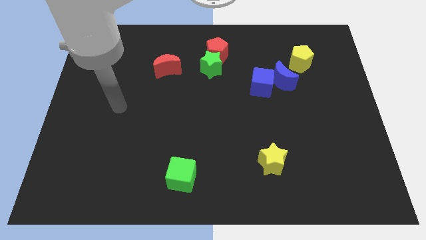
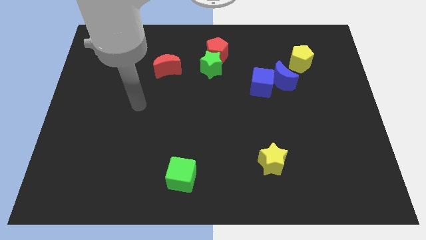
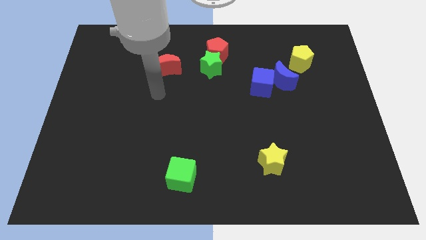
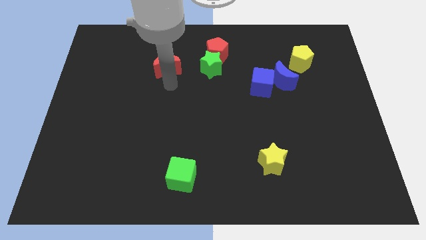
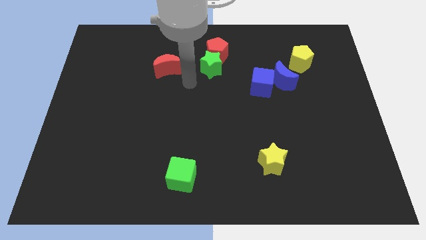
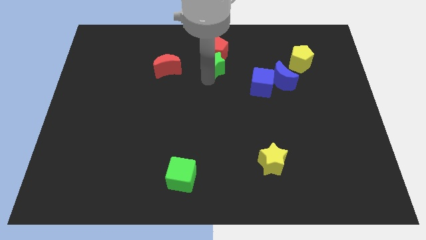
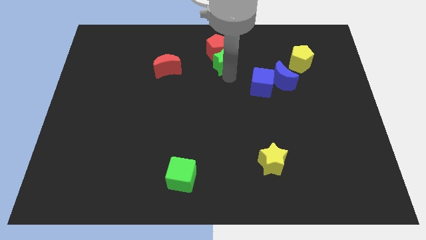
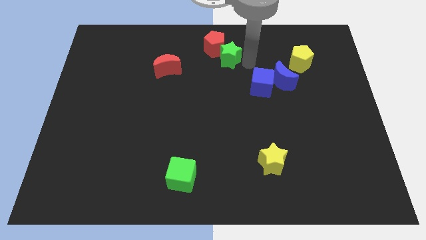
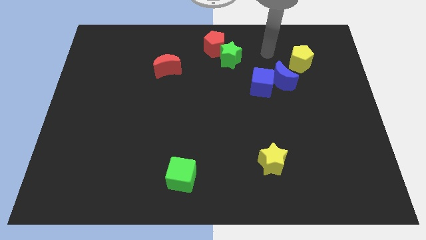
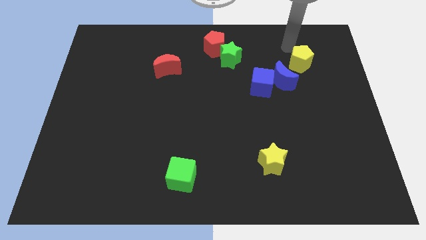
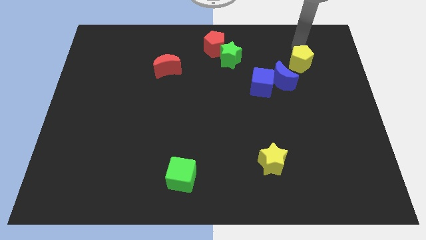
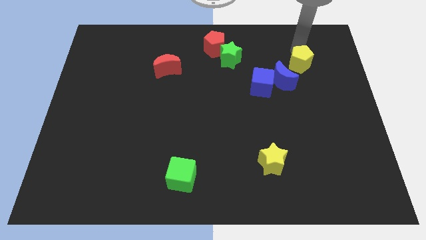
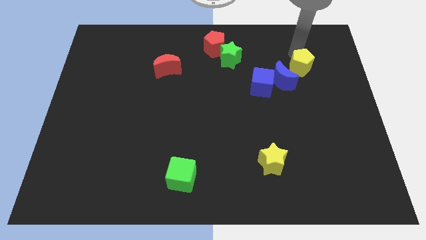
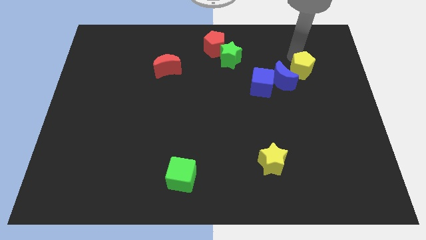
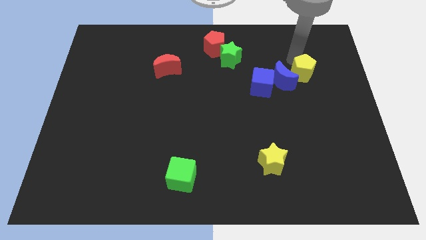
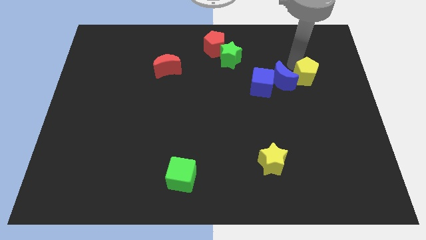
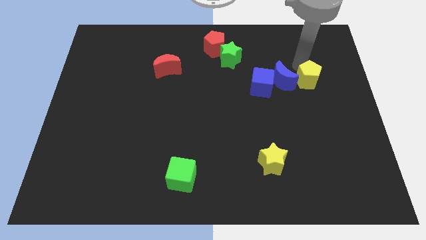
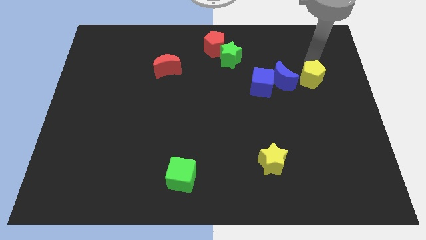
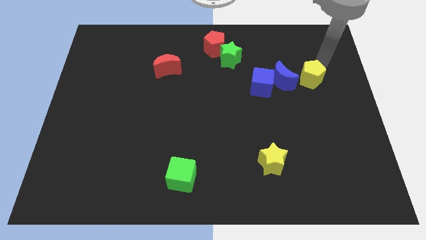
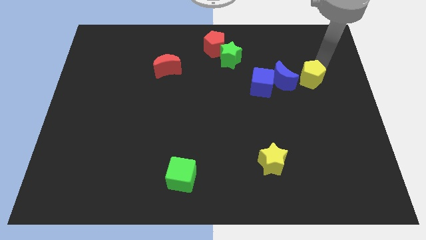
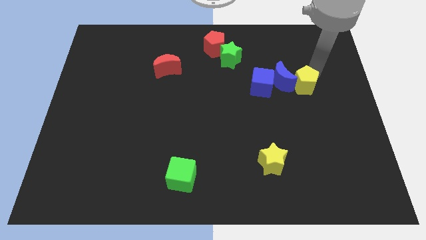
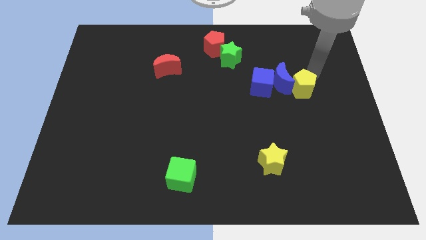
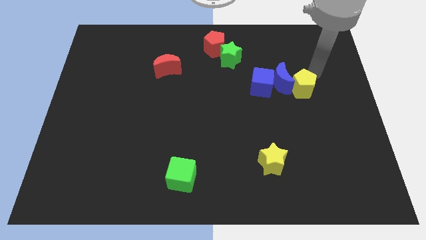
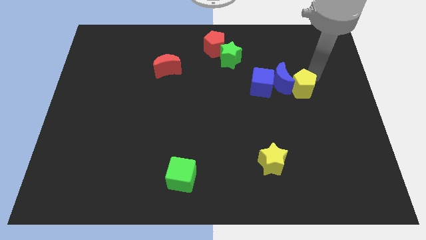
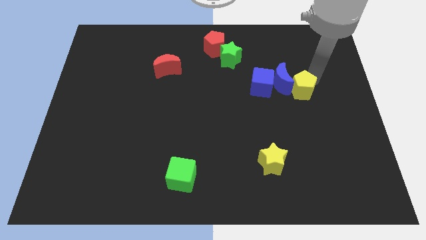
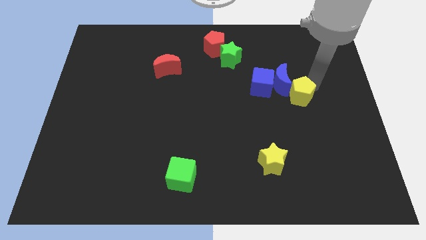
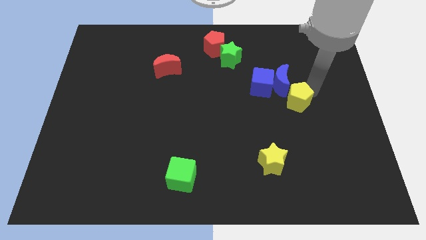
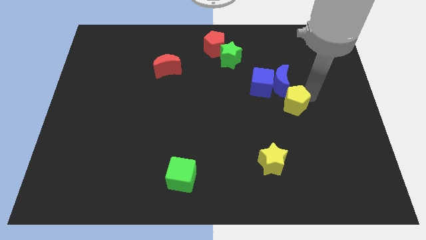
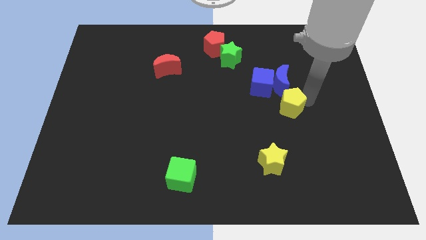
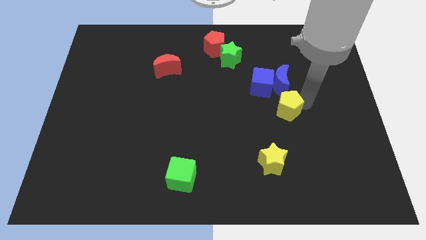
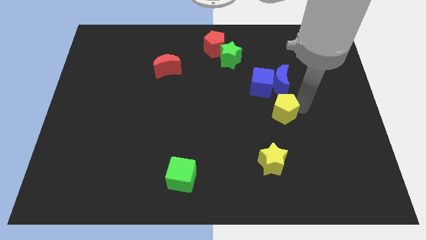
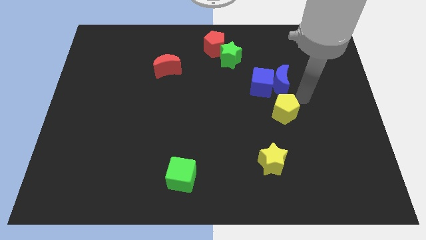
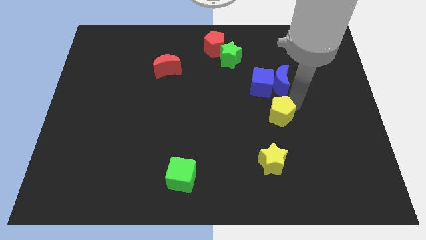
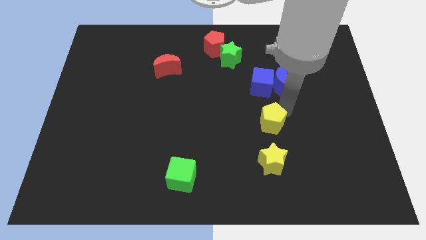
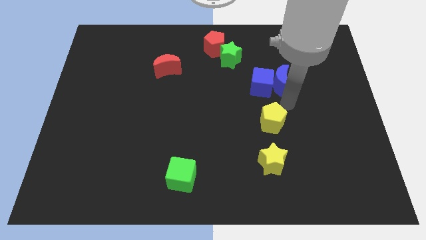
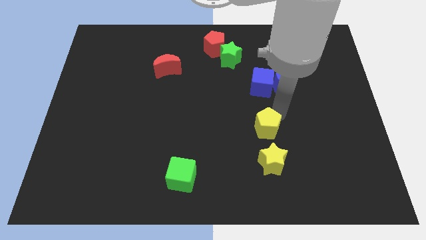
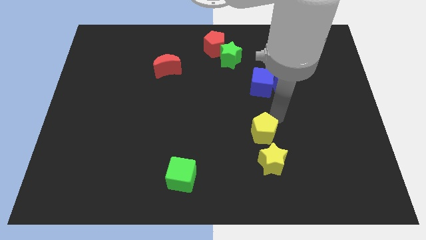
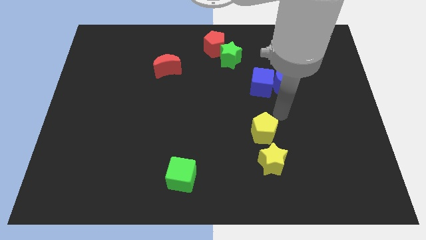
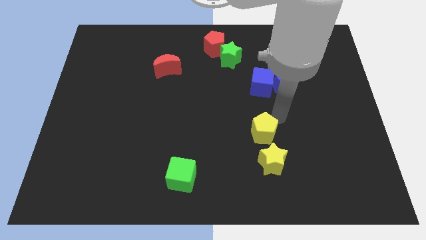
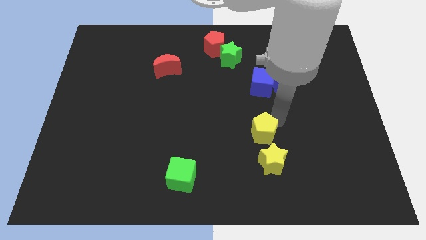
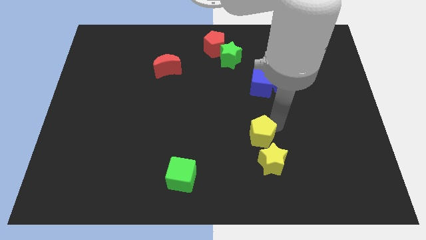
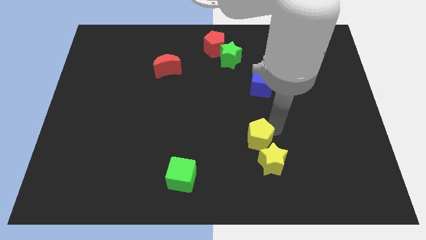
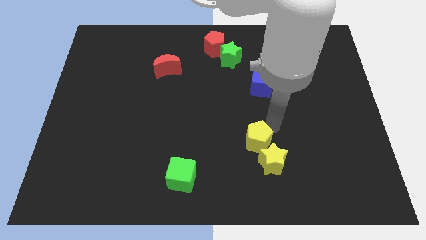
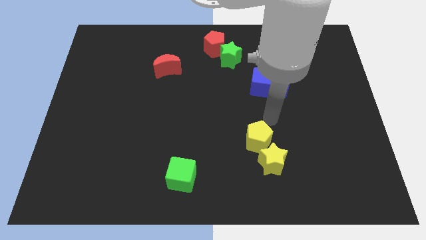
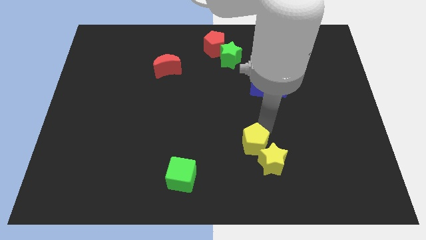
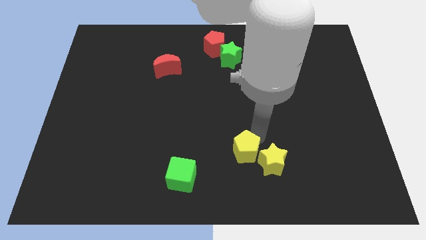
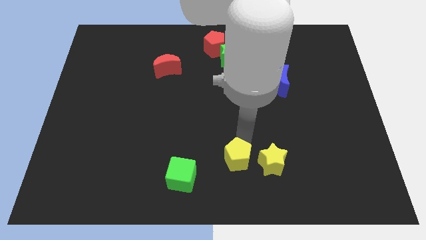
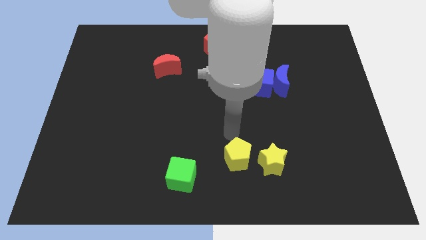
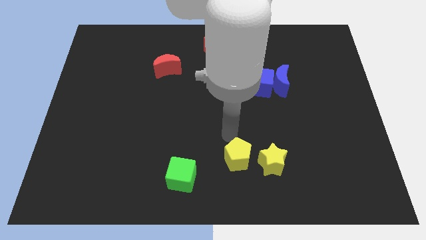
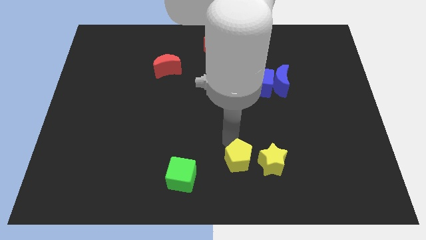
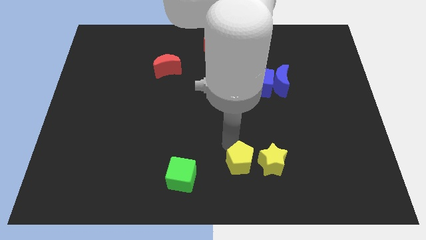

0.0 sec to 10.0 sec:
slide the yellow pentagon diagonally down and to the left of the yellow star

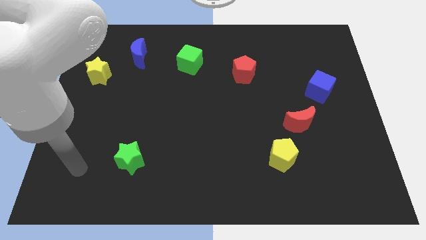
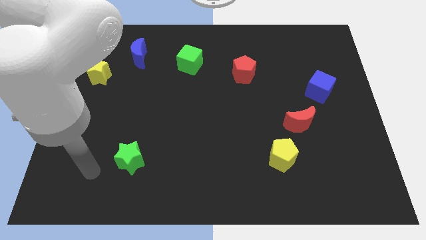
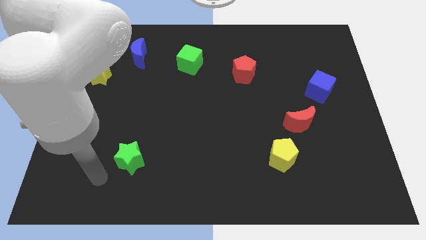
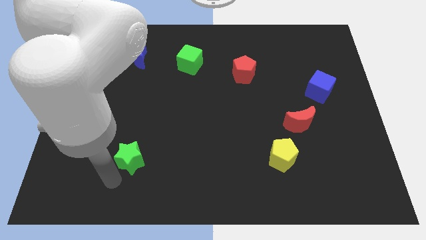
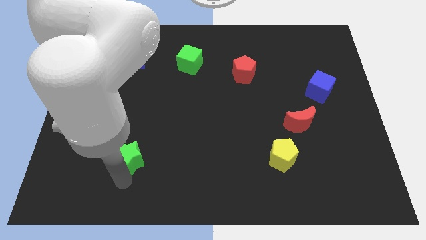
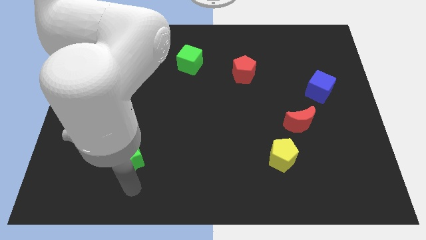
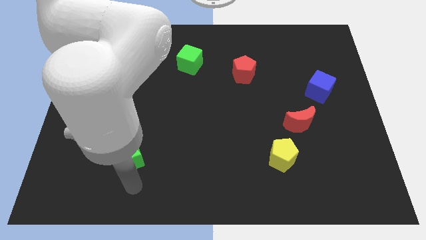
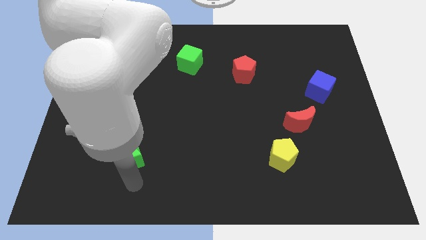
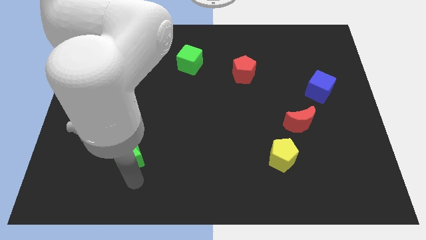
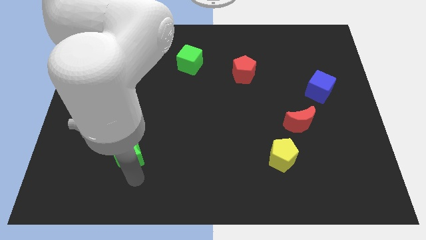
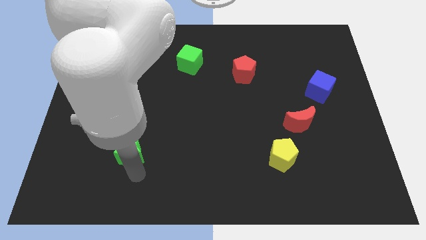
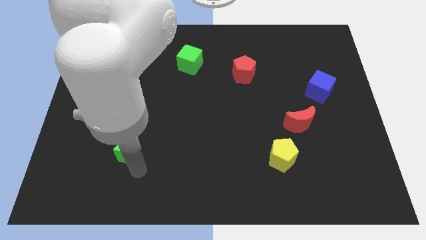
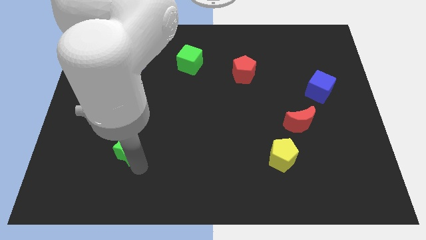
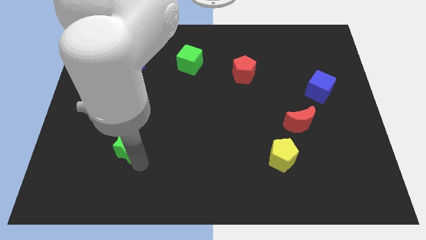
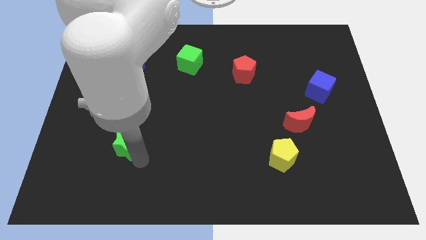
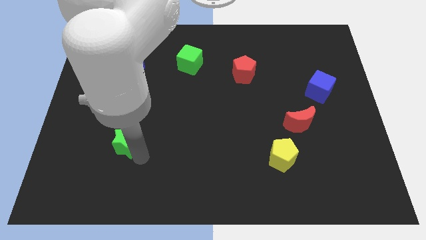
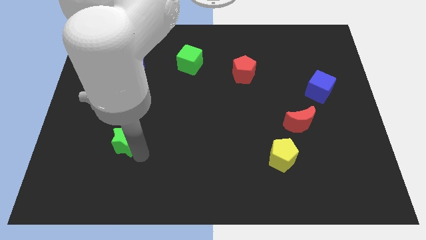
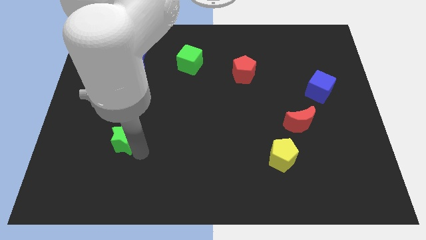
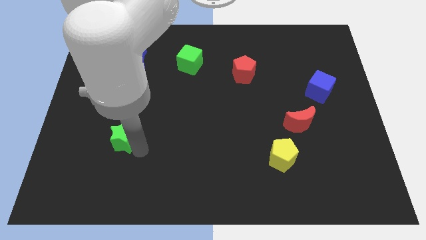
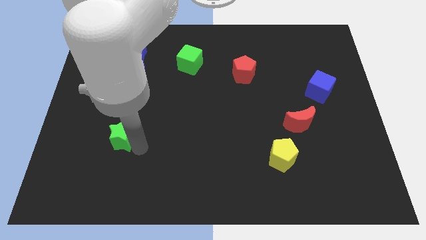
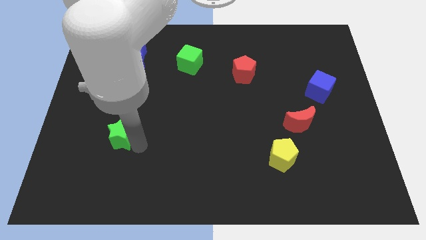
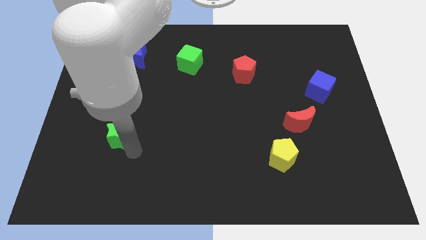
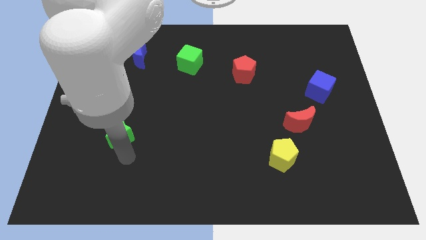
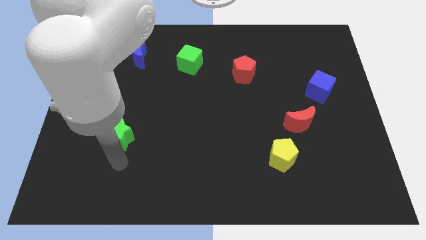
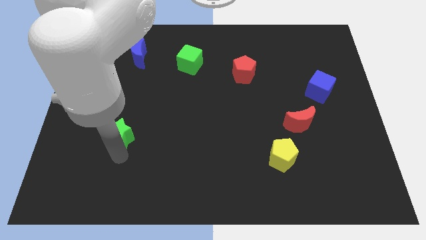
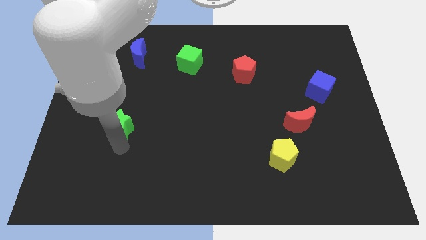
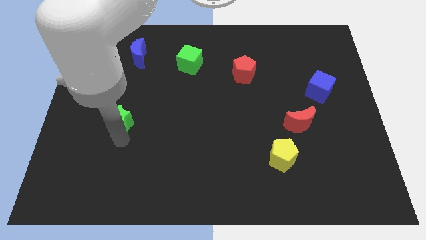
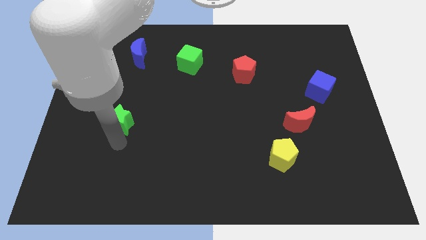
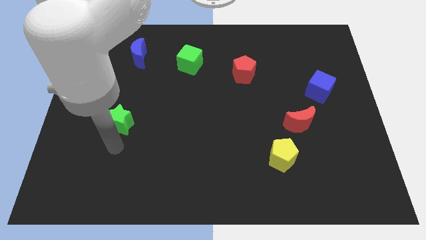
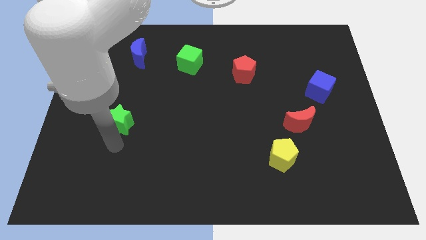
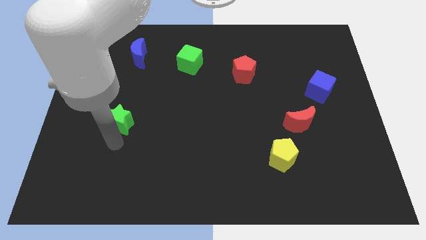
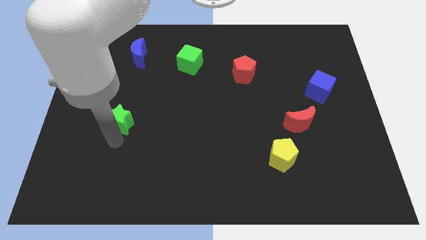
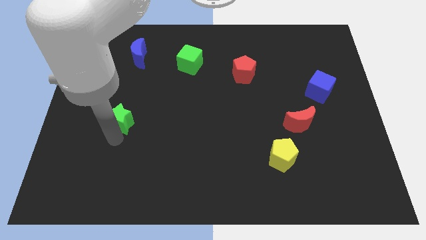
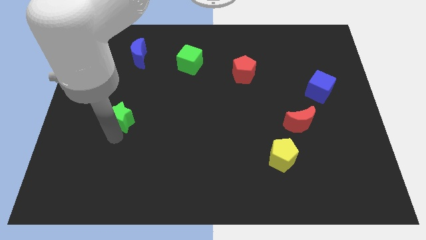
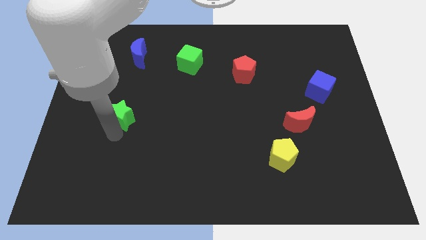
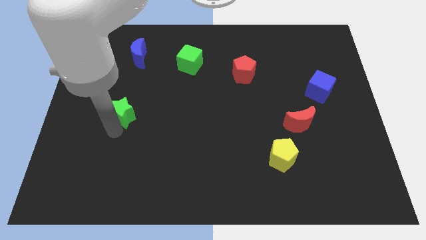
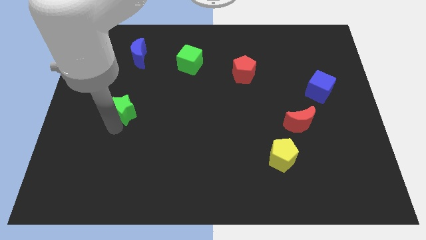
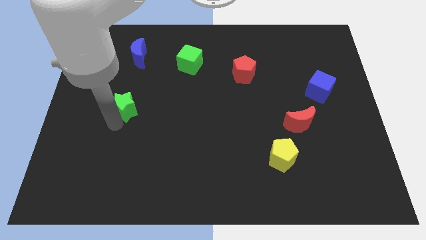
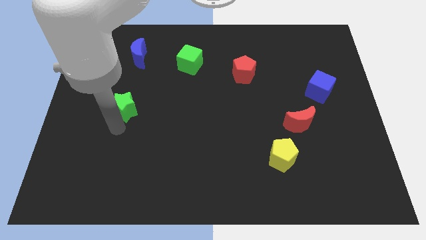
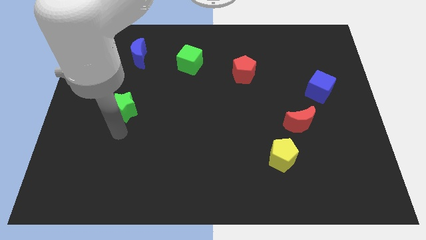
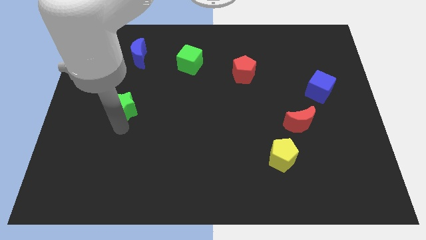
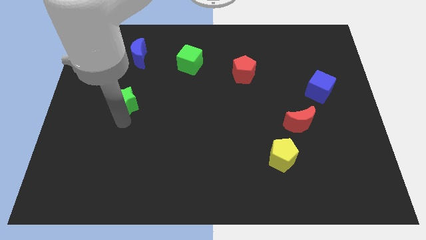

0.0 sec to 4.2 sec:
slide the green star to the bottom side of the blue moon
